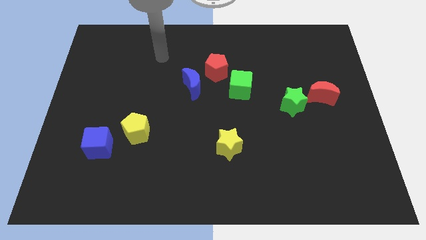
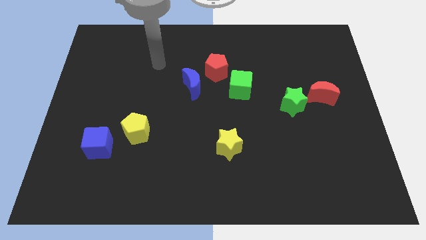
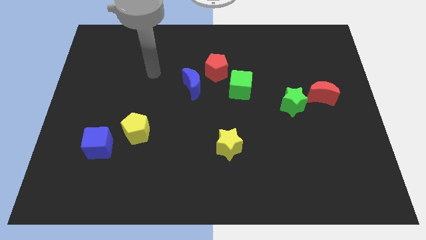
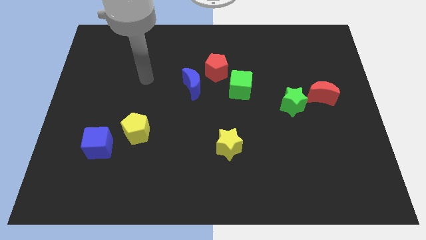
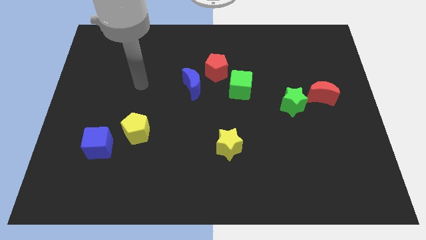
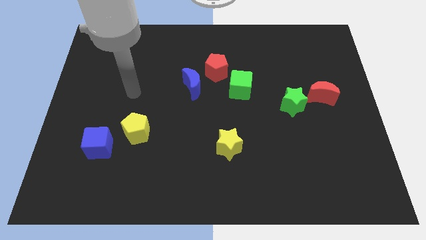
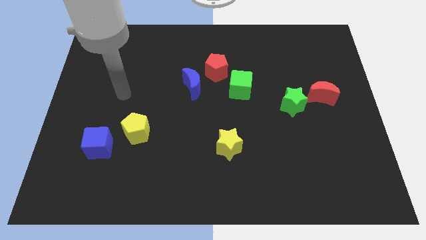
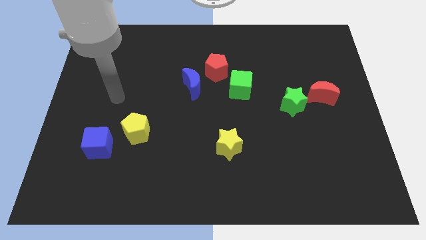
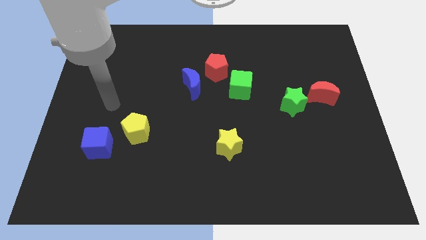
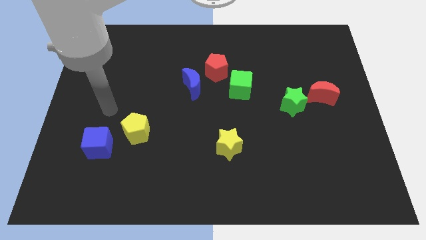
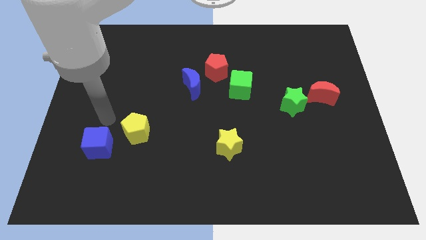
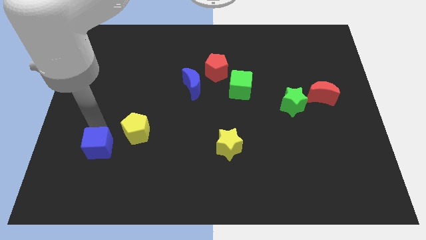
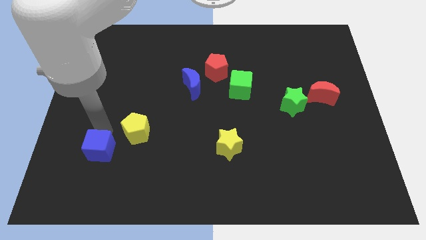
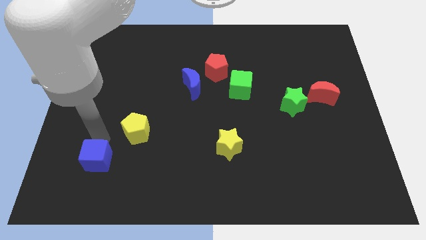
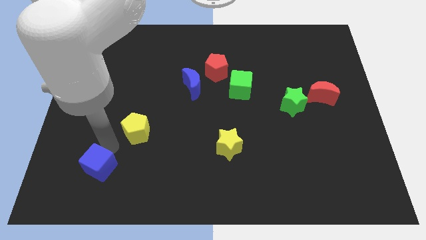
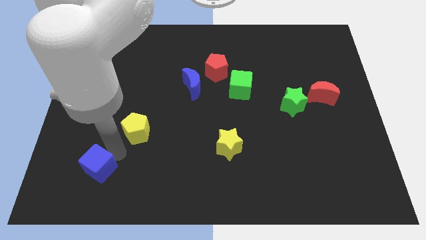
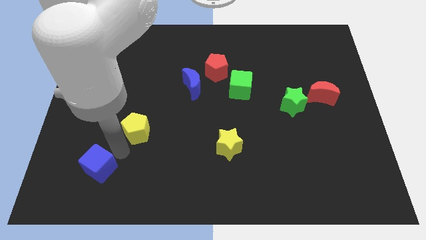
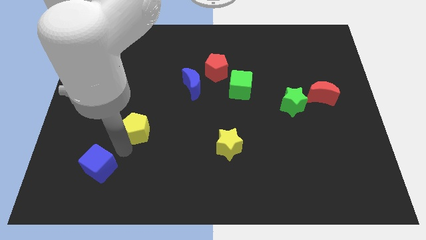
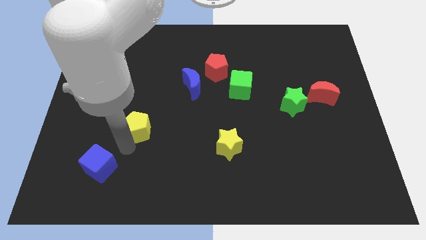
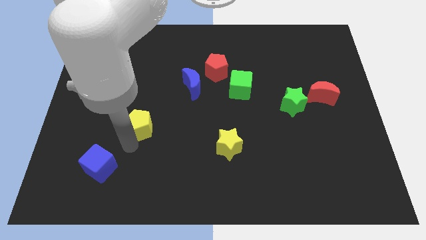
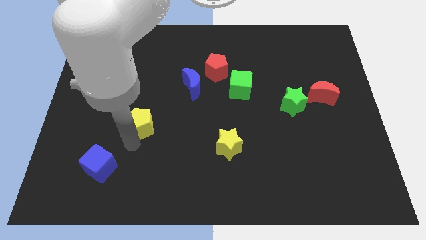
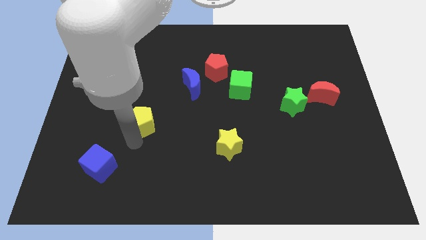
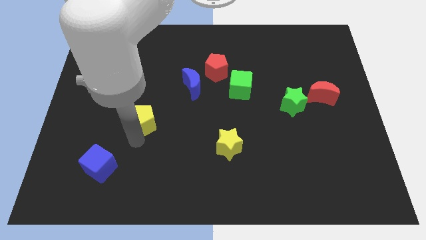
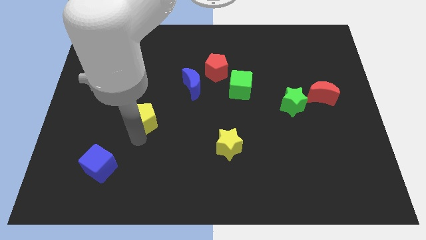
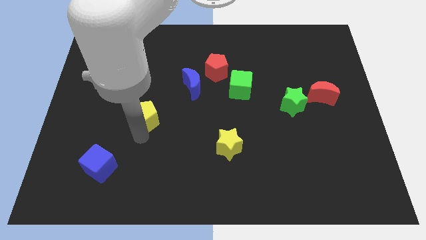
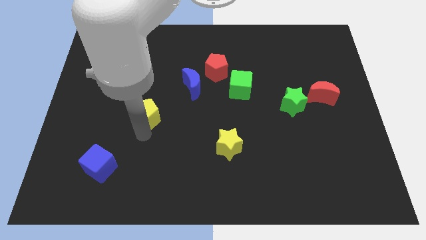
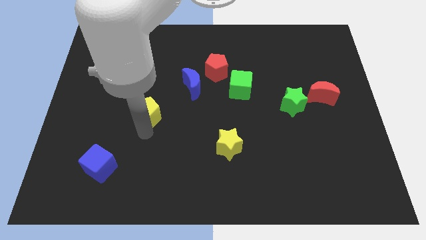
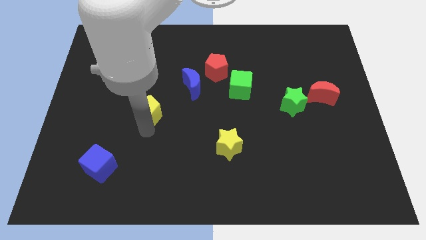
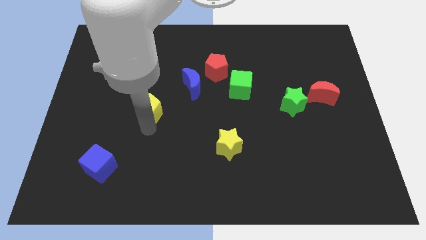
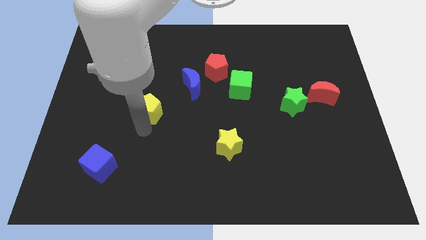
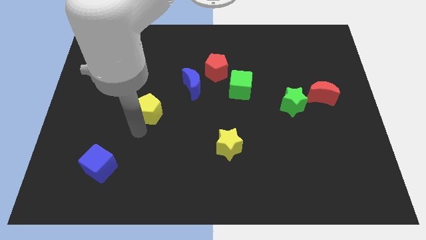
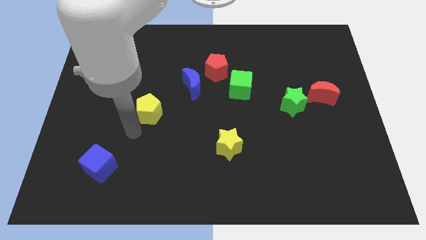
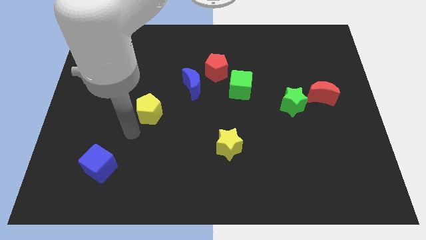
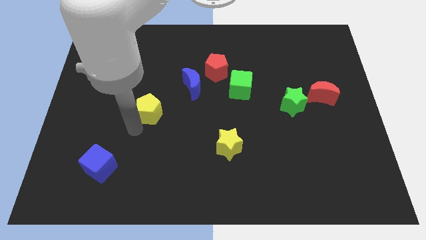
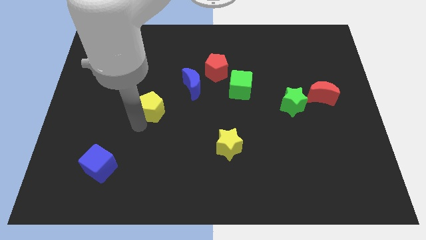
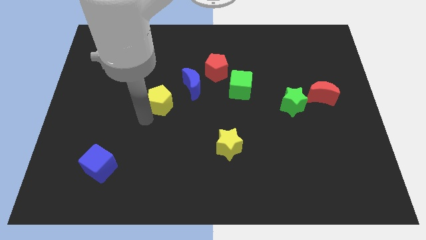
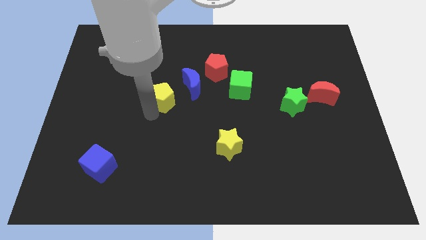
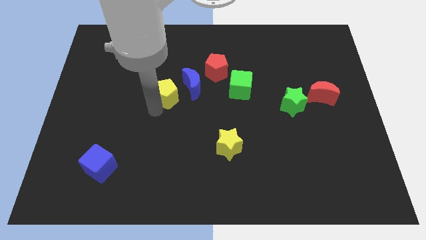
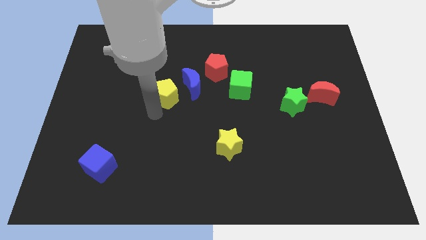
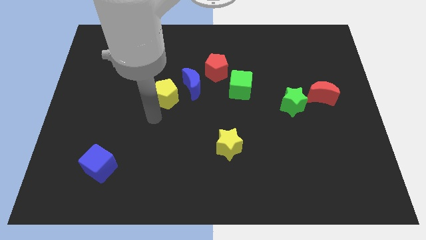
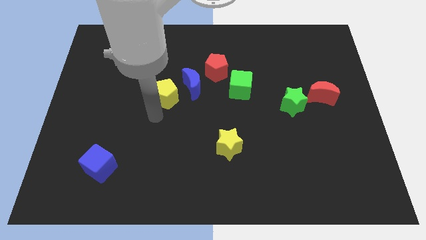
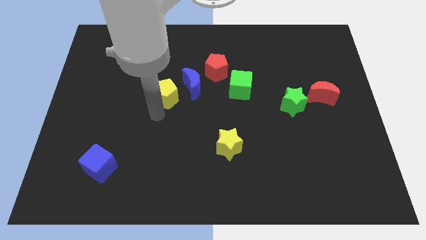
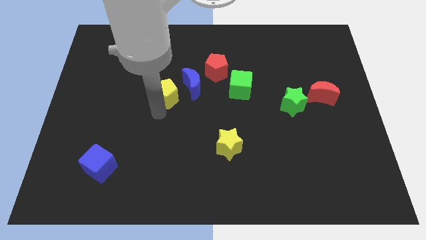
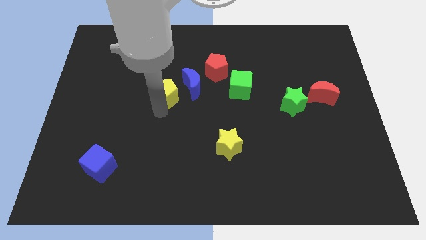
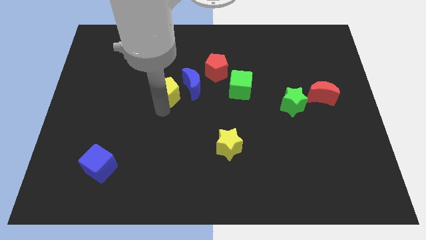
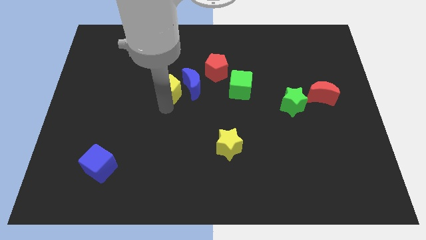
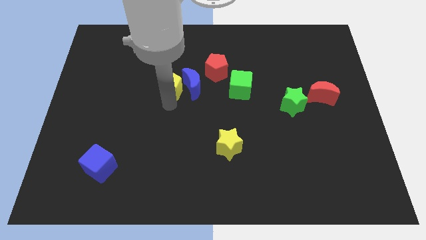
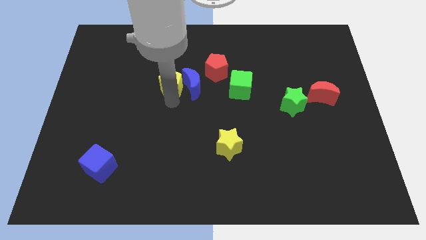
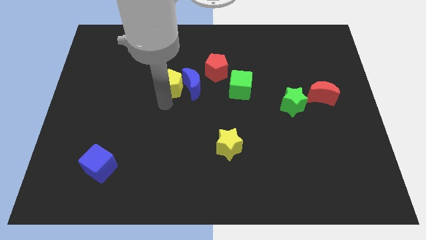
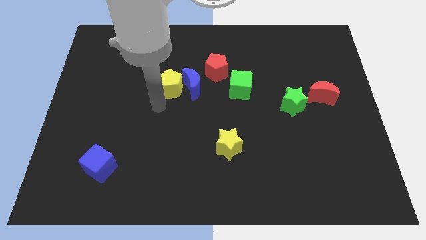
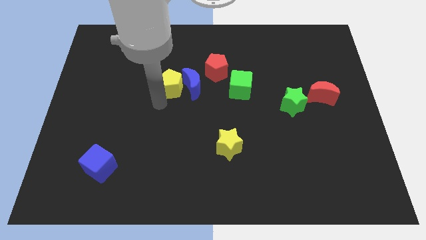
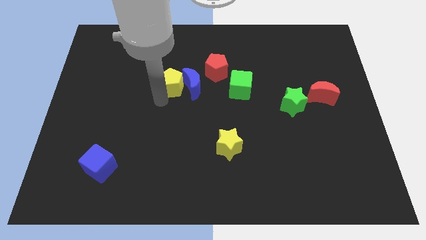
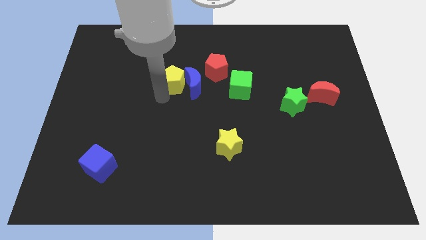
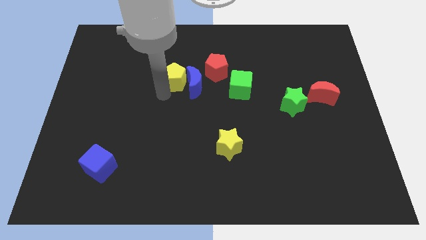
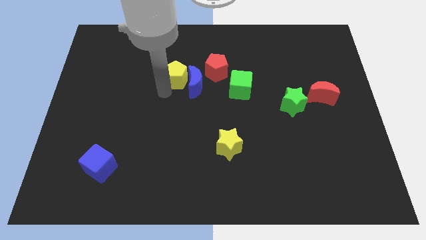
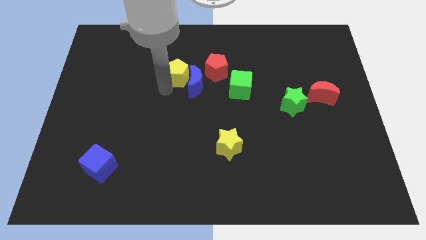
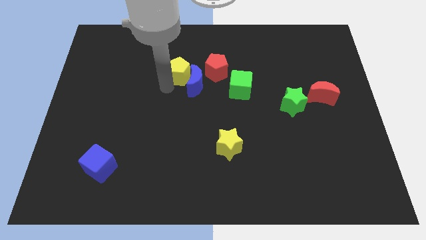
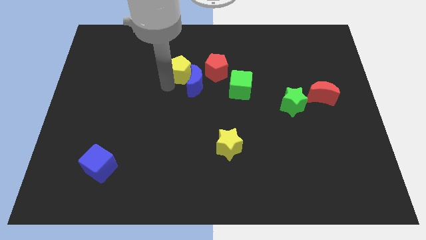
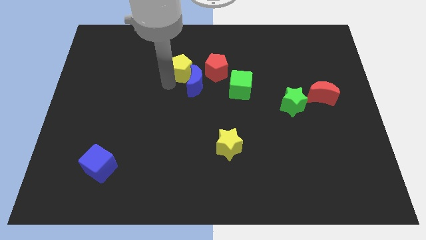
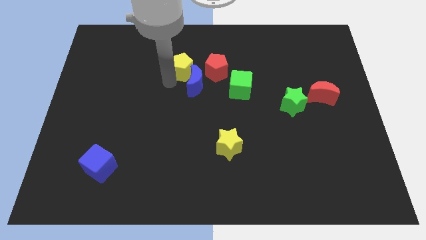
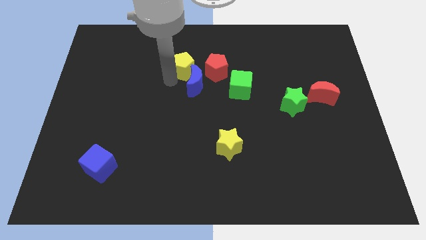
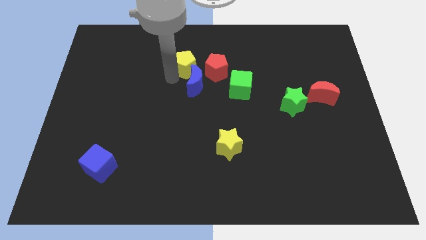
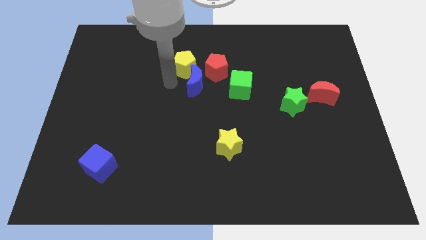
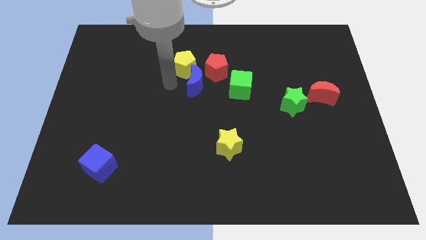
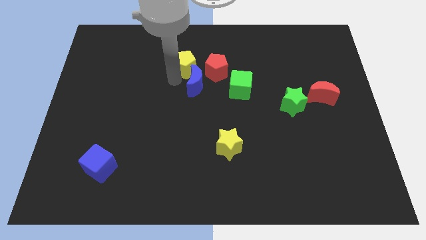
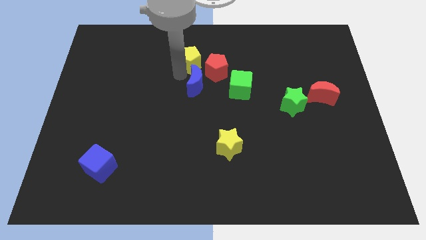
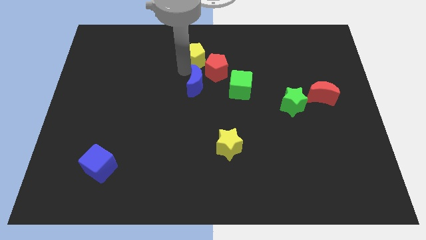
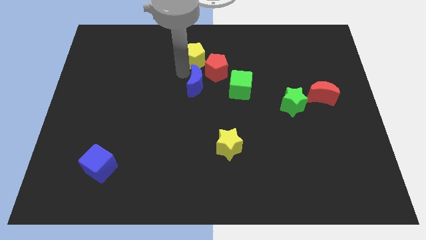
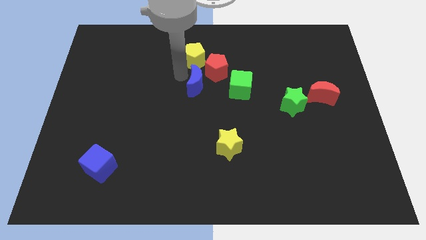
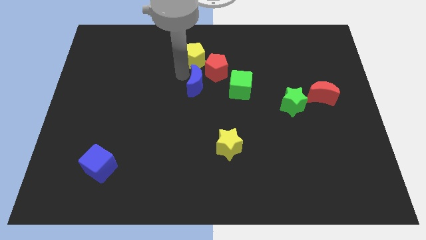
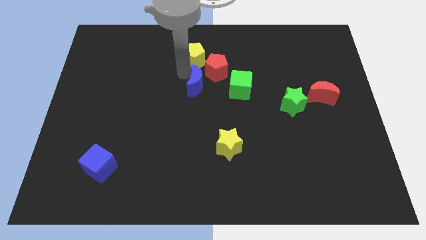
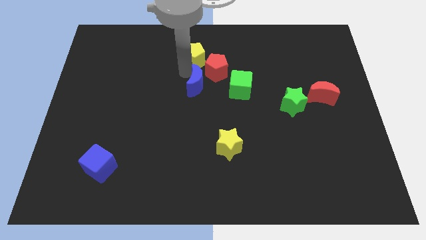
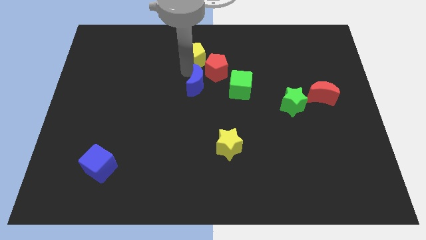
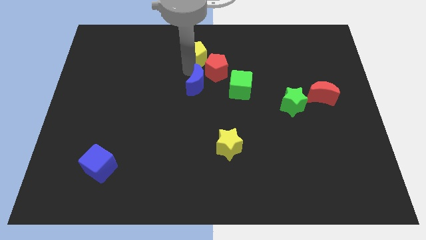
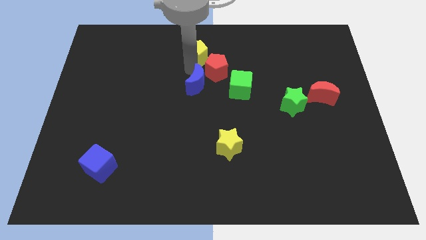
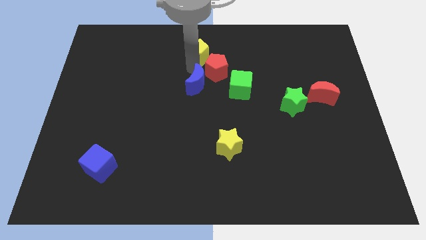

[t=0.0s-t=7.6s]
put the yellow pentagon to the top side
